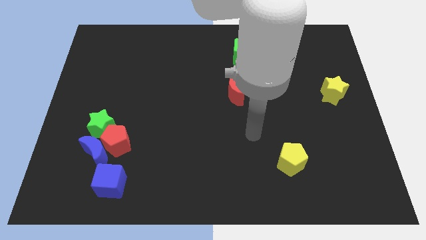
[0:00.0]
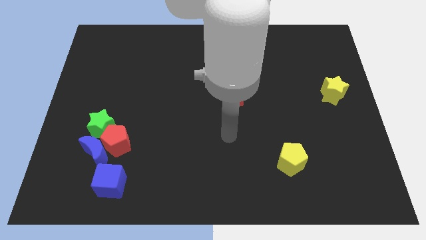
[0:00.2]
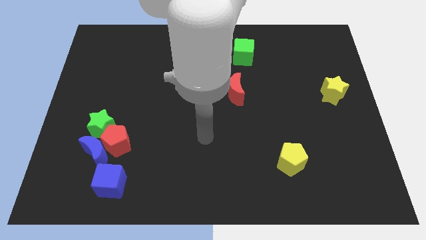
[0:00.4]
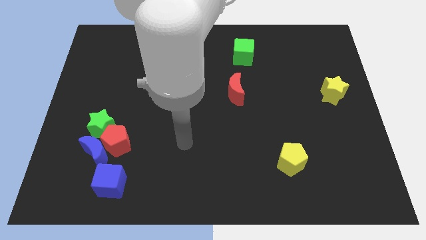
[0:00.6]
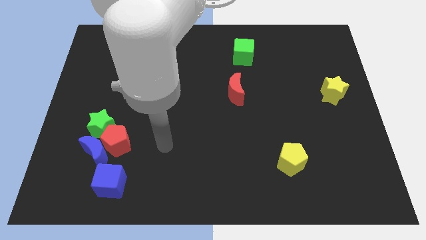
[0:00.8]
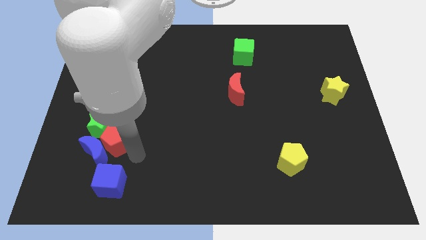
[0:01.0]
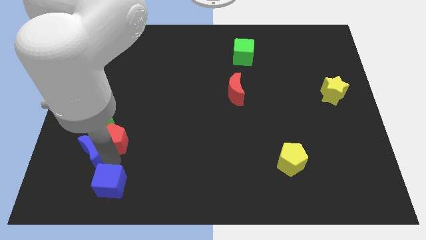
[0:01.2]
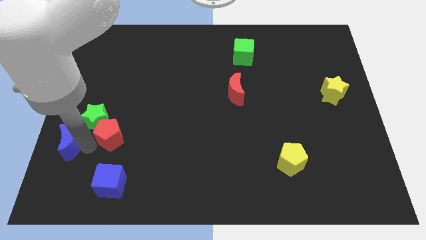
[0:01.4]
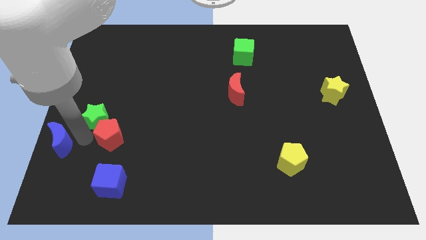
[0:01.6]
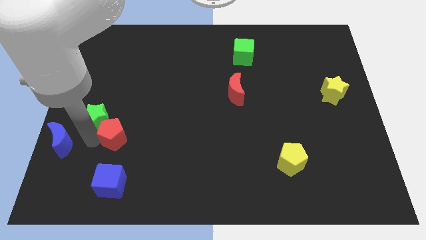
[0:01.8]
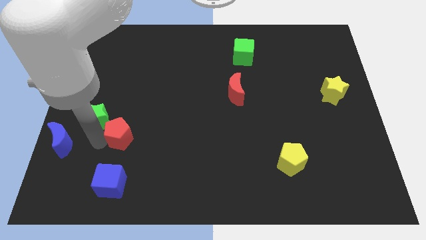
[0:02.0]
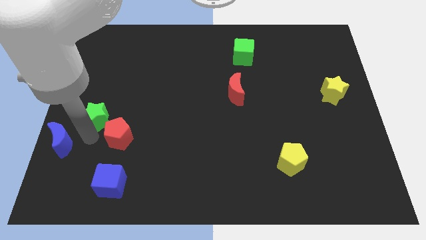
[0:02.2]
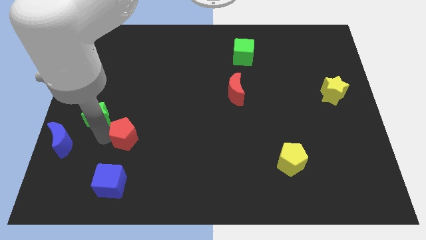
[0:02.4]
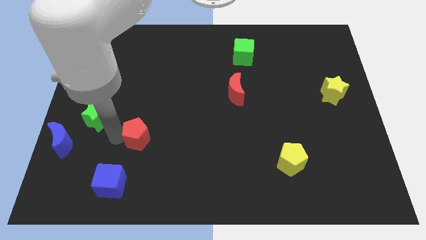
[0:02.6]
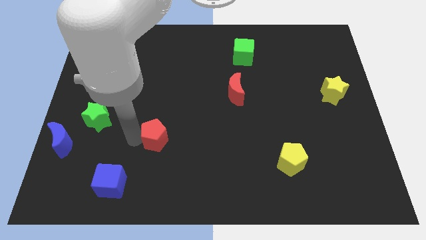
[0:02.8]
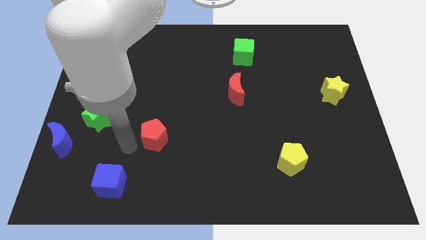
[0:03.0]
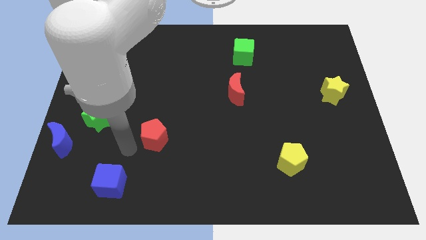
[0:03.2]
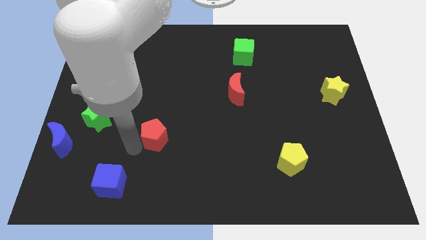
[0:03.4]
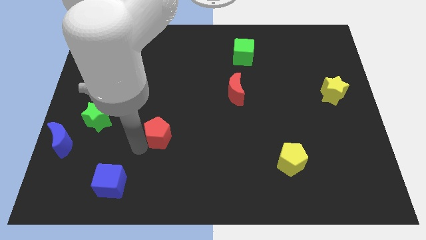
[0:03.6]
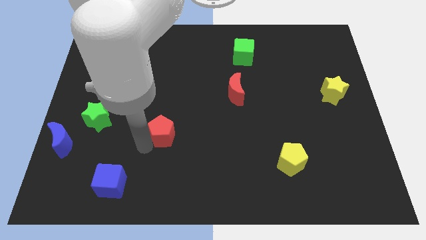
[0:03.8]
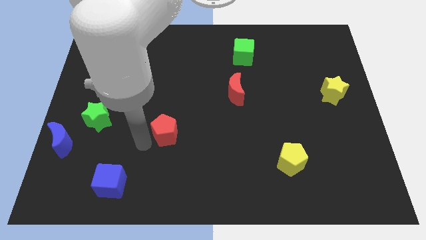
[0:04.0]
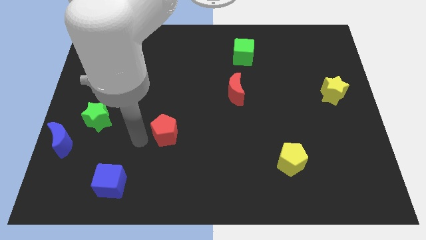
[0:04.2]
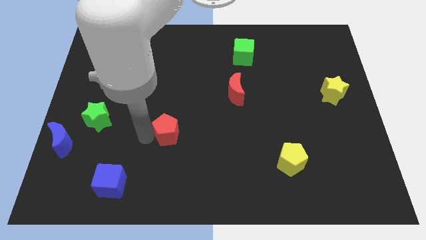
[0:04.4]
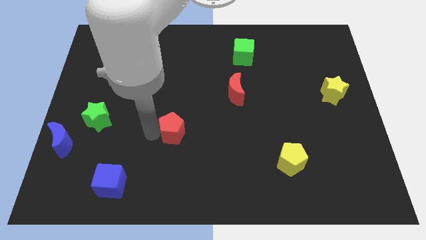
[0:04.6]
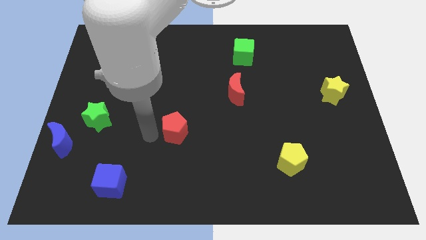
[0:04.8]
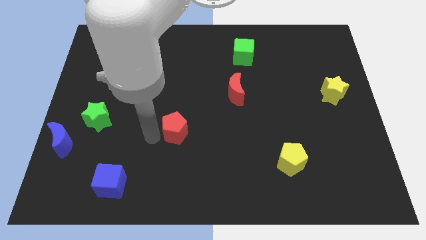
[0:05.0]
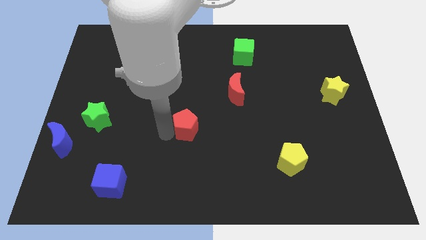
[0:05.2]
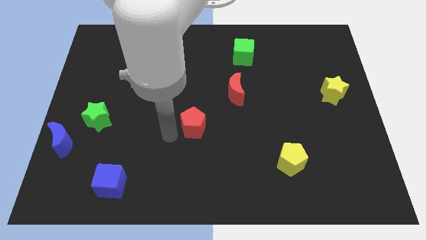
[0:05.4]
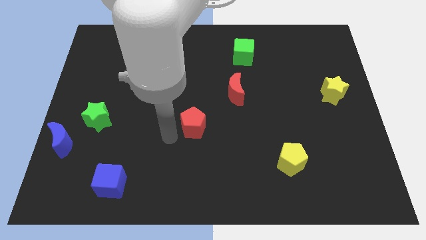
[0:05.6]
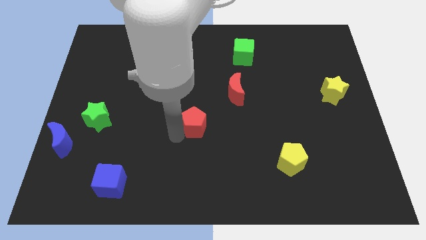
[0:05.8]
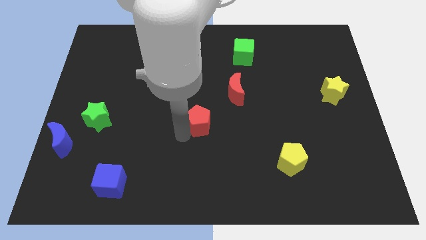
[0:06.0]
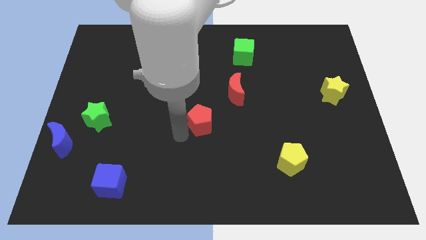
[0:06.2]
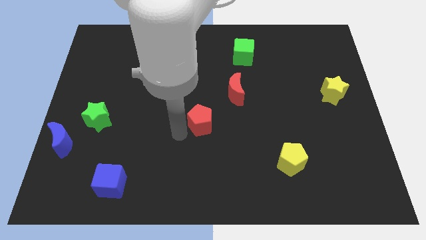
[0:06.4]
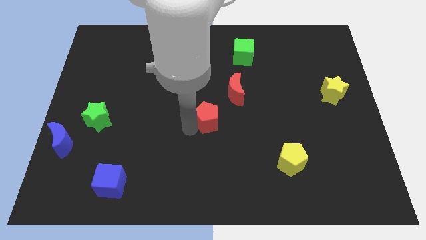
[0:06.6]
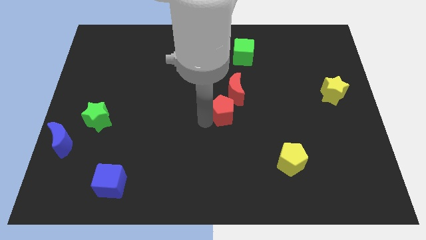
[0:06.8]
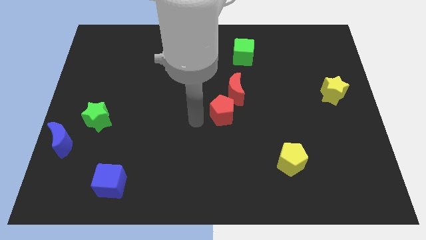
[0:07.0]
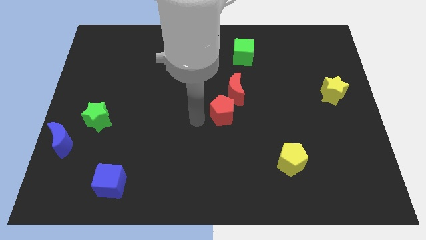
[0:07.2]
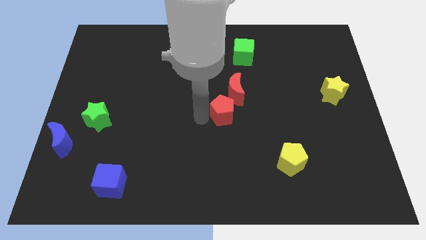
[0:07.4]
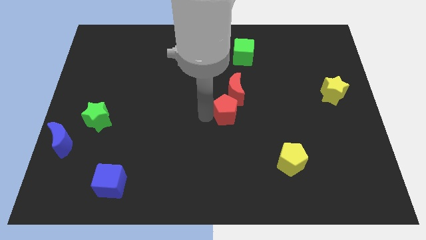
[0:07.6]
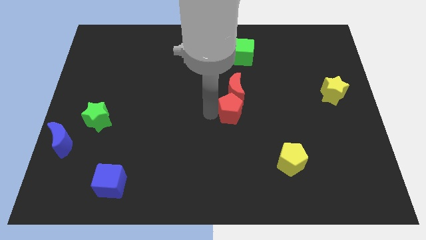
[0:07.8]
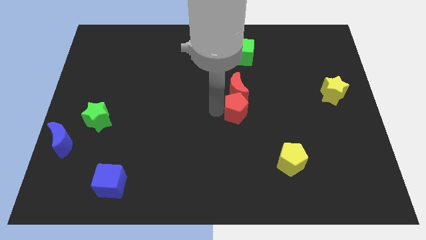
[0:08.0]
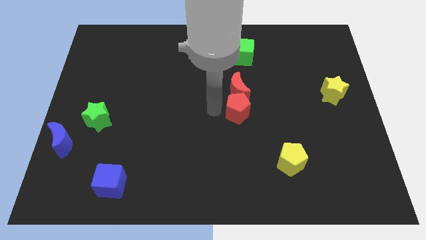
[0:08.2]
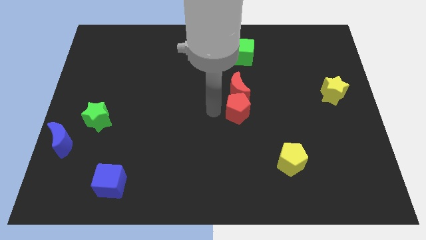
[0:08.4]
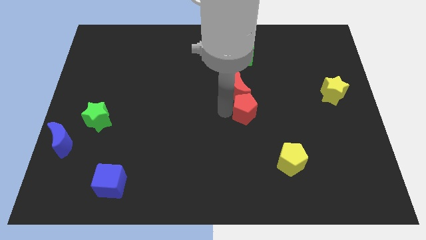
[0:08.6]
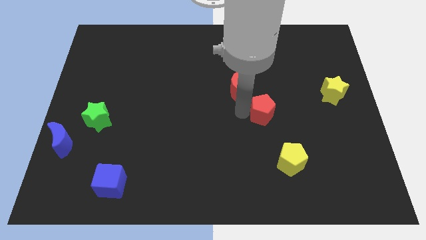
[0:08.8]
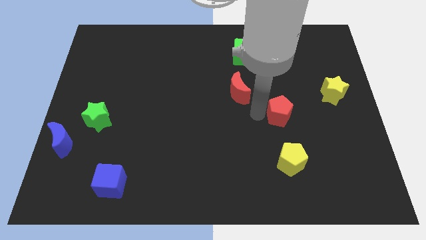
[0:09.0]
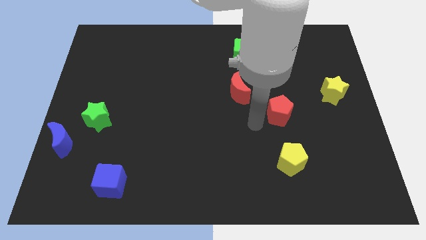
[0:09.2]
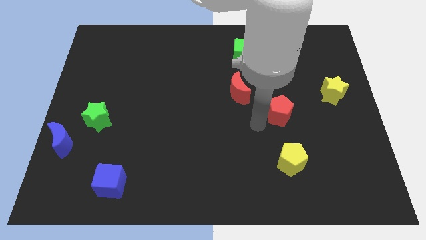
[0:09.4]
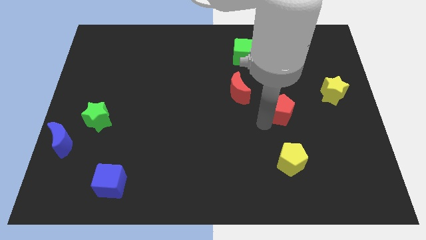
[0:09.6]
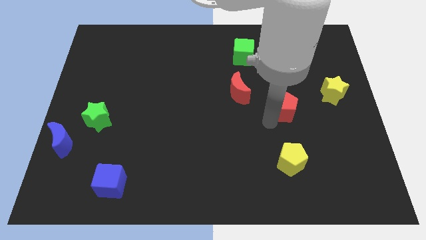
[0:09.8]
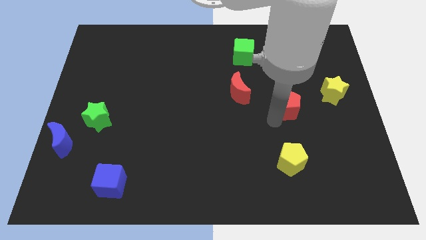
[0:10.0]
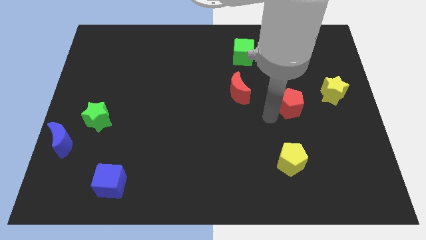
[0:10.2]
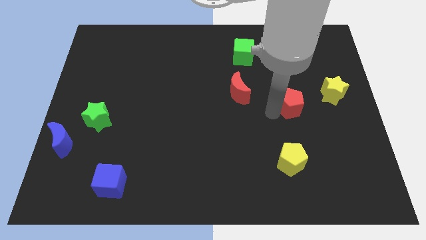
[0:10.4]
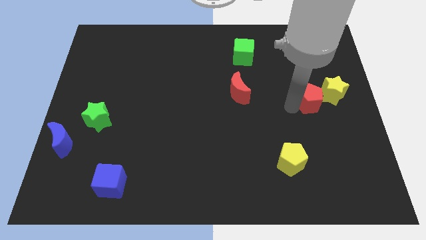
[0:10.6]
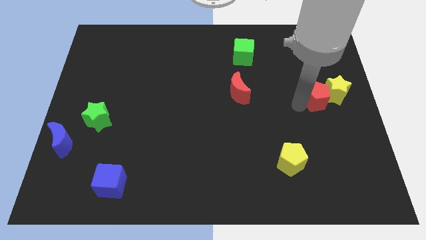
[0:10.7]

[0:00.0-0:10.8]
push the red pentagon towards the yellow star

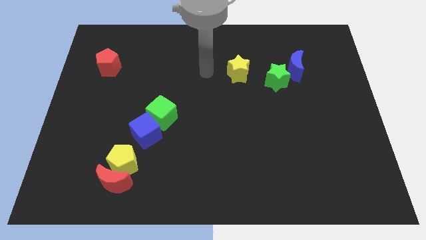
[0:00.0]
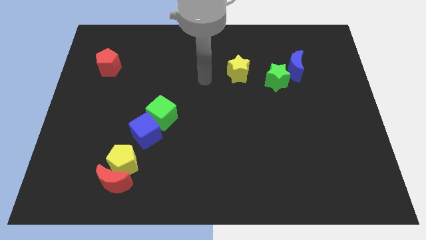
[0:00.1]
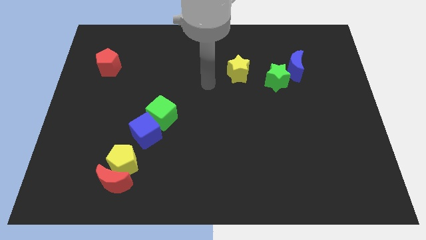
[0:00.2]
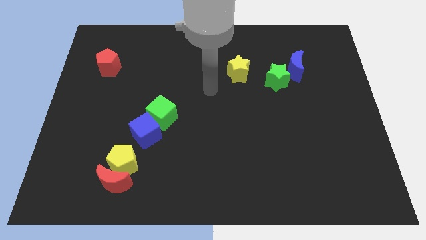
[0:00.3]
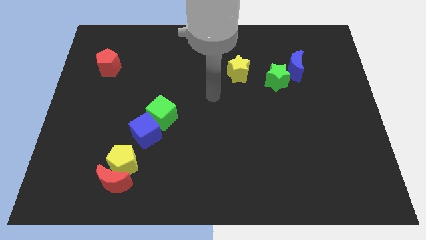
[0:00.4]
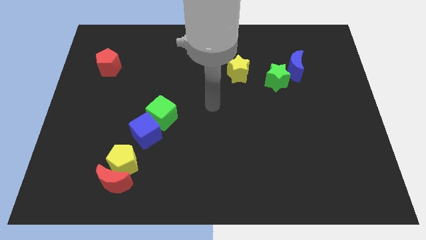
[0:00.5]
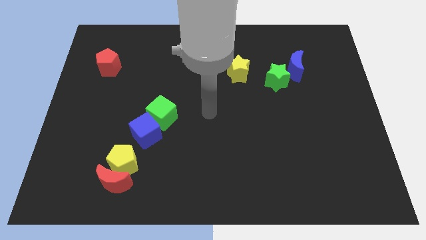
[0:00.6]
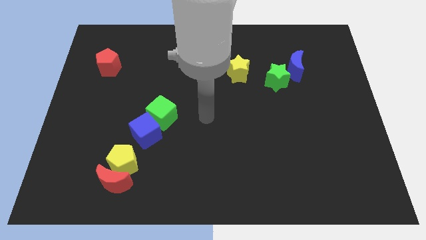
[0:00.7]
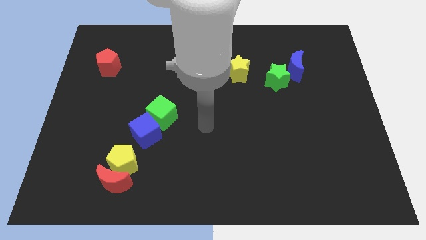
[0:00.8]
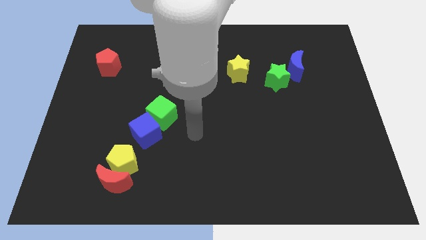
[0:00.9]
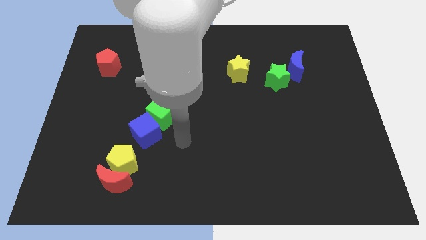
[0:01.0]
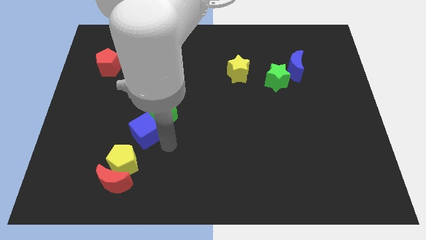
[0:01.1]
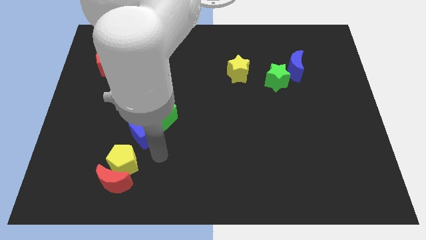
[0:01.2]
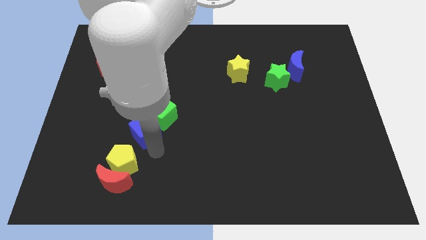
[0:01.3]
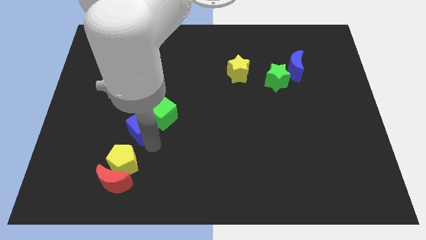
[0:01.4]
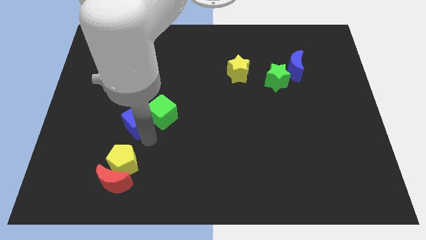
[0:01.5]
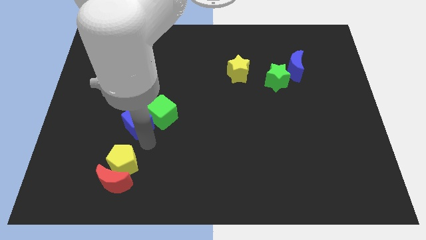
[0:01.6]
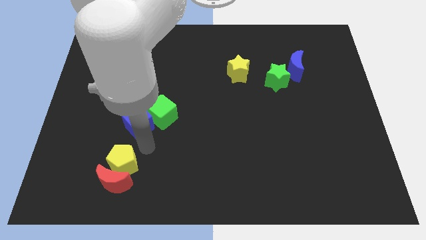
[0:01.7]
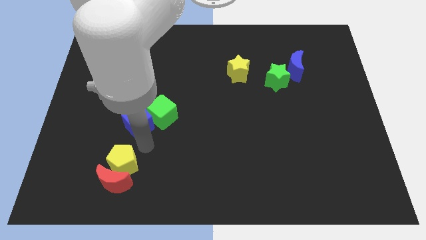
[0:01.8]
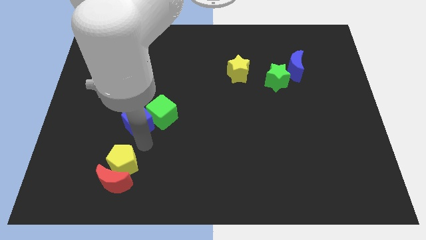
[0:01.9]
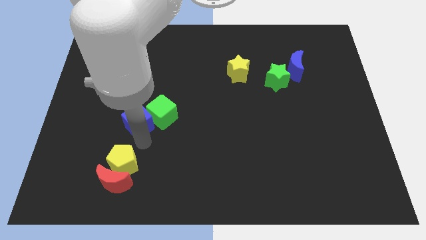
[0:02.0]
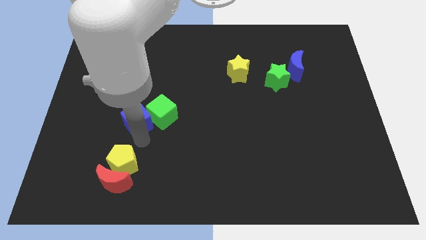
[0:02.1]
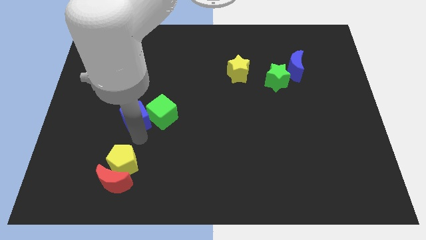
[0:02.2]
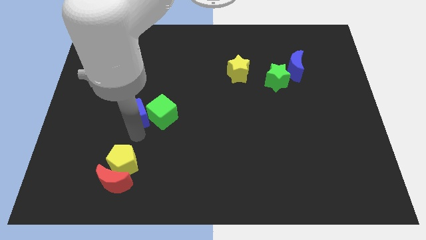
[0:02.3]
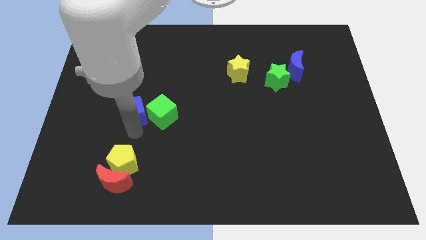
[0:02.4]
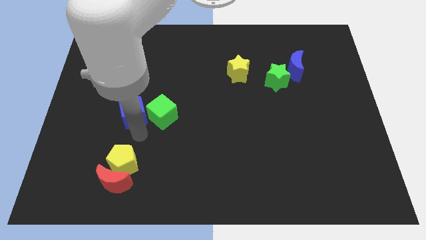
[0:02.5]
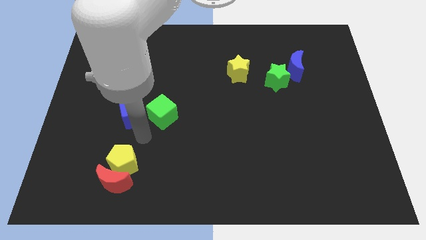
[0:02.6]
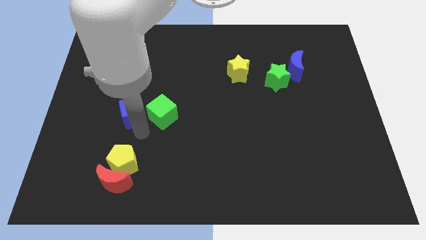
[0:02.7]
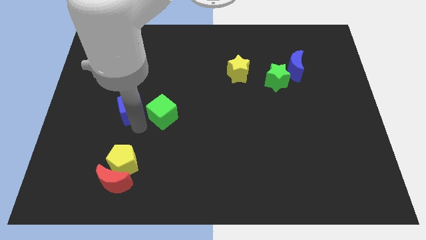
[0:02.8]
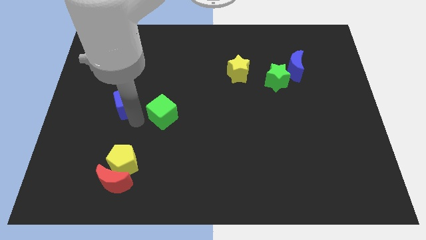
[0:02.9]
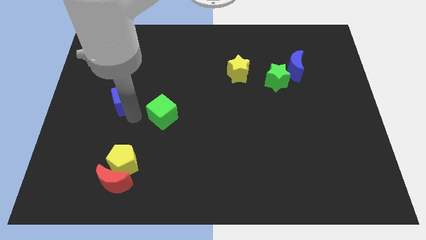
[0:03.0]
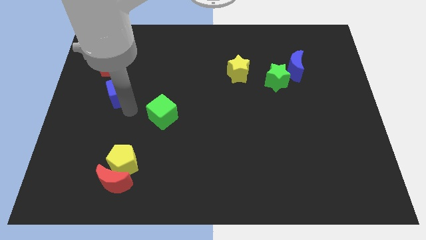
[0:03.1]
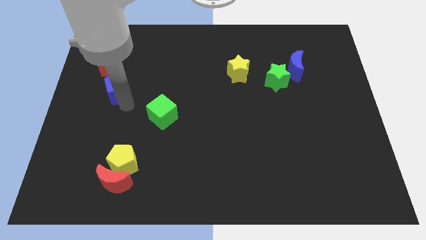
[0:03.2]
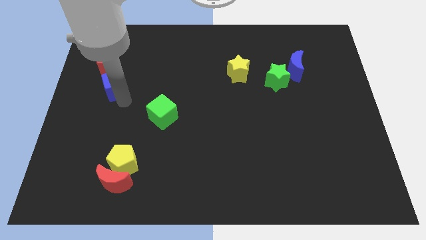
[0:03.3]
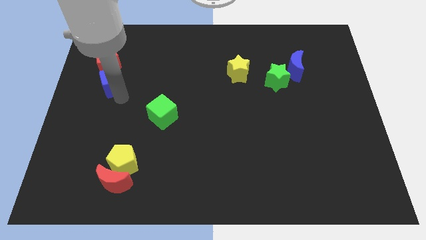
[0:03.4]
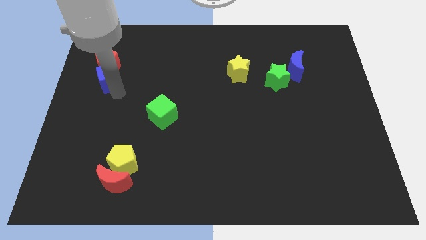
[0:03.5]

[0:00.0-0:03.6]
slide the blue cube close to the red pentagon
